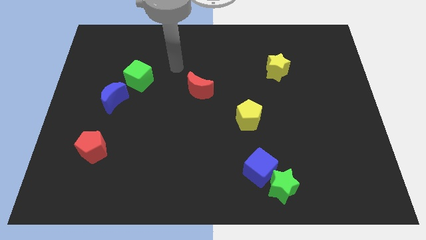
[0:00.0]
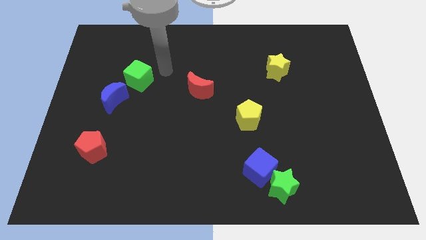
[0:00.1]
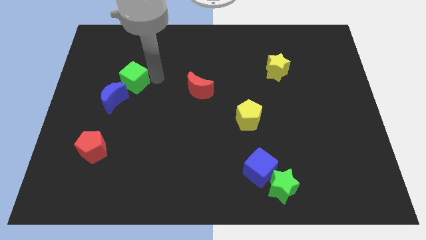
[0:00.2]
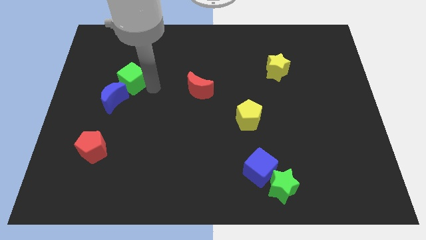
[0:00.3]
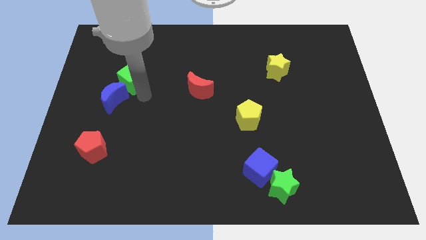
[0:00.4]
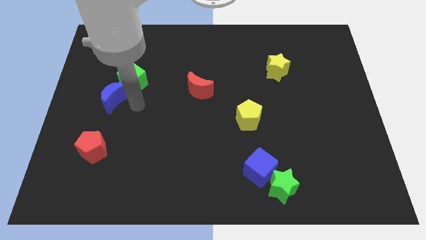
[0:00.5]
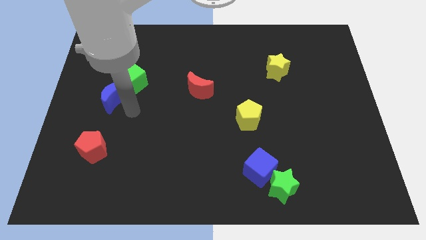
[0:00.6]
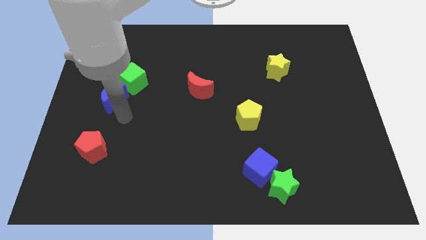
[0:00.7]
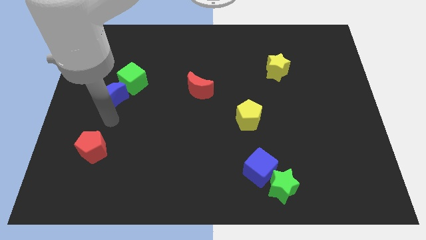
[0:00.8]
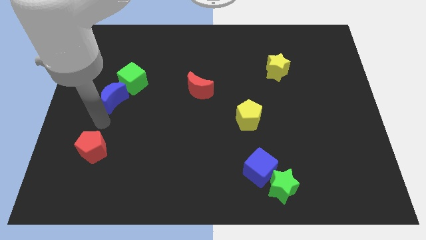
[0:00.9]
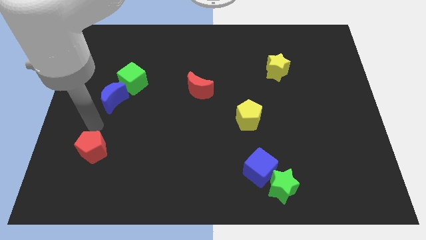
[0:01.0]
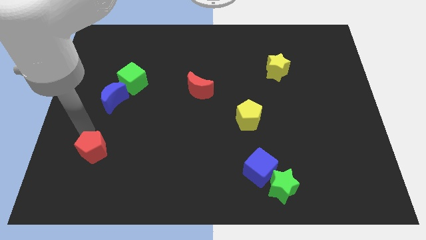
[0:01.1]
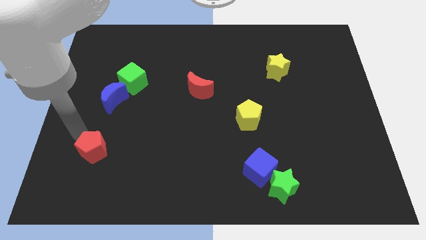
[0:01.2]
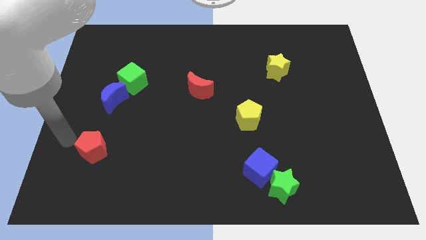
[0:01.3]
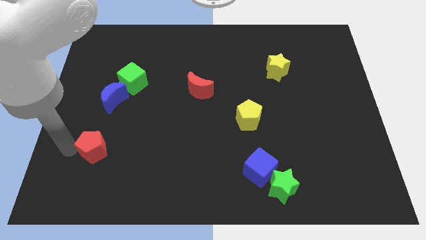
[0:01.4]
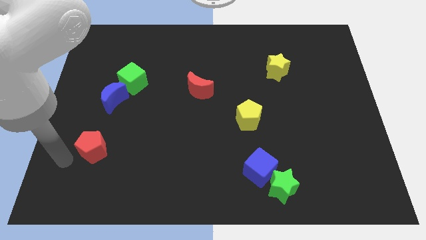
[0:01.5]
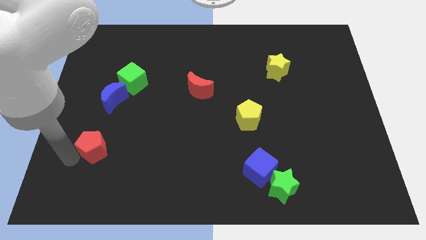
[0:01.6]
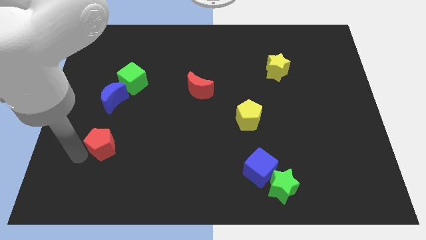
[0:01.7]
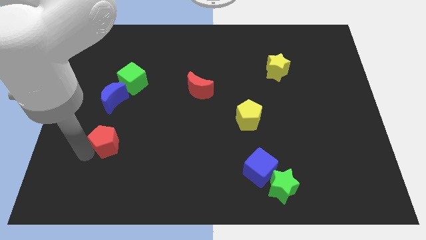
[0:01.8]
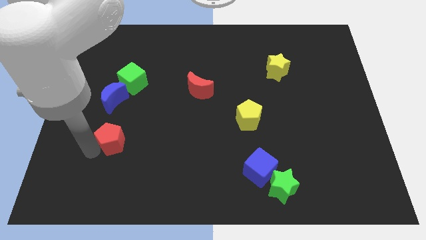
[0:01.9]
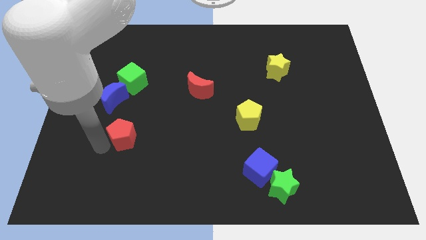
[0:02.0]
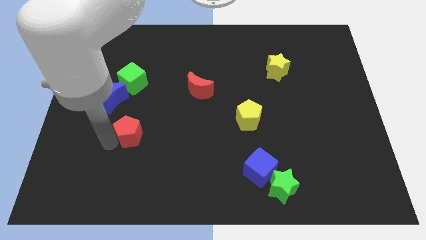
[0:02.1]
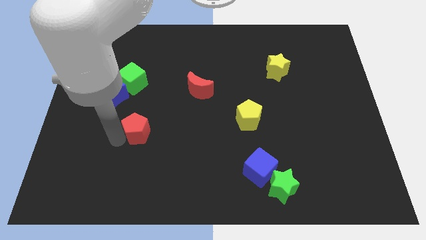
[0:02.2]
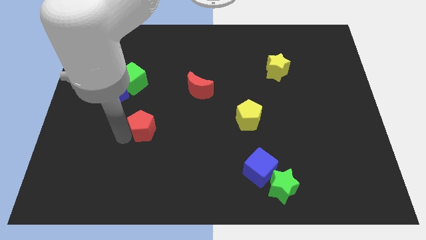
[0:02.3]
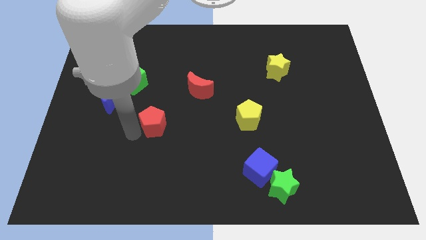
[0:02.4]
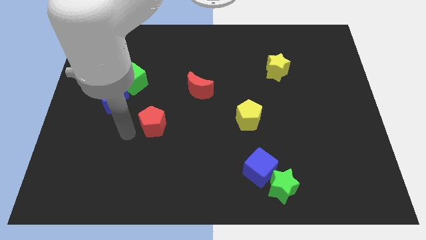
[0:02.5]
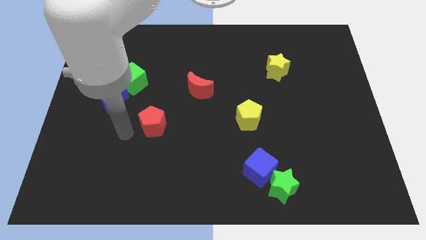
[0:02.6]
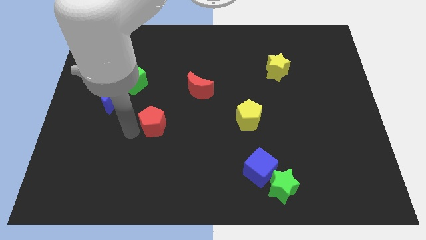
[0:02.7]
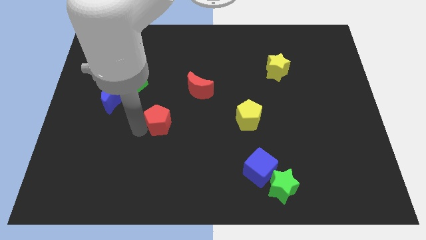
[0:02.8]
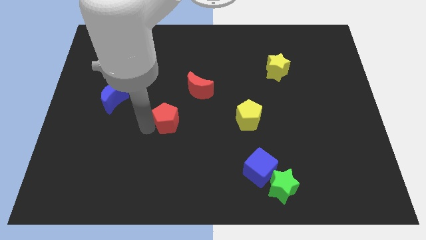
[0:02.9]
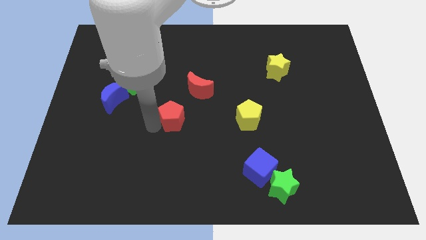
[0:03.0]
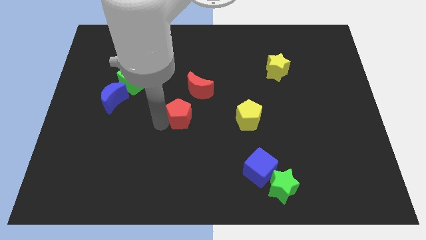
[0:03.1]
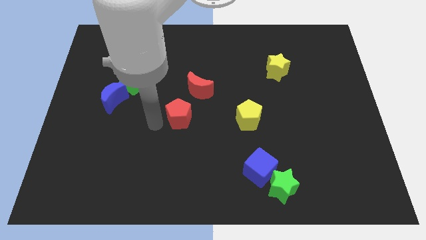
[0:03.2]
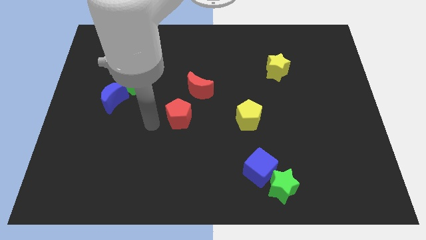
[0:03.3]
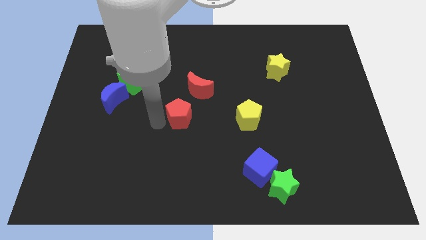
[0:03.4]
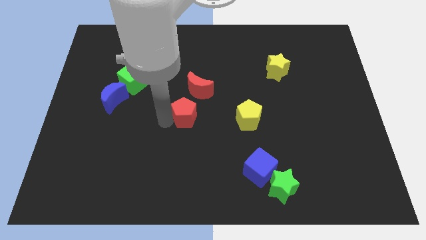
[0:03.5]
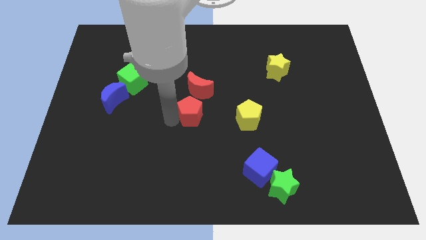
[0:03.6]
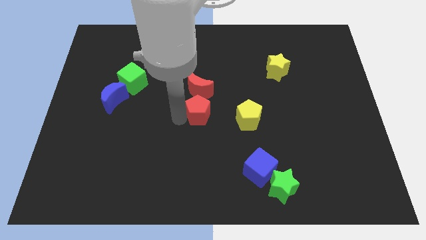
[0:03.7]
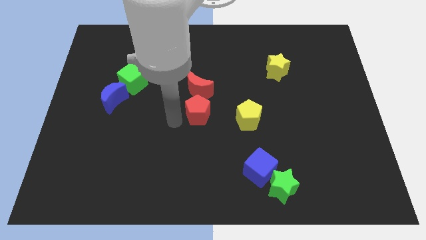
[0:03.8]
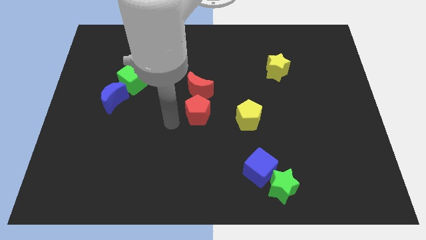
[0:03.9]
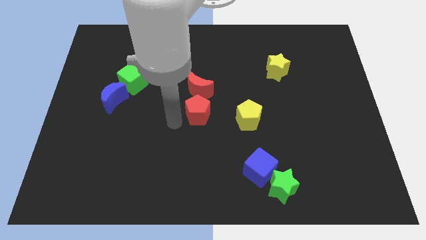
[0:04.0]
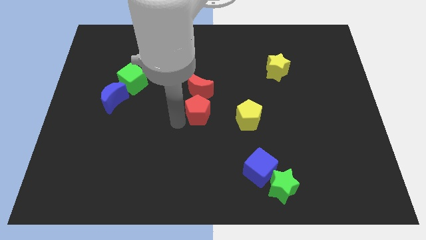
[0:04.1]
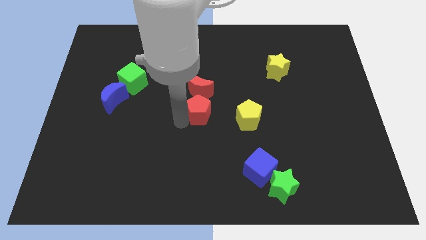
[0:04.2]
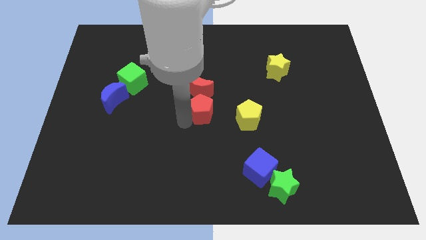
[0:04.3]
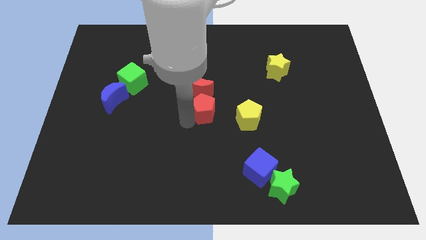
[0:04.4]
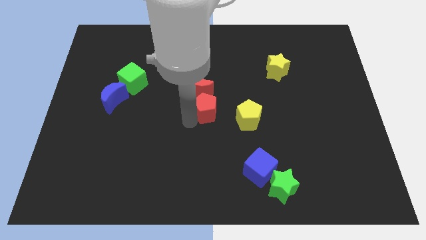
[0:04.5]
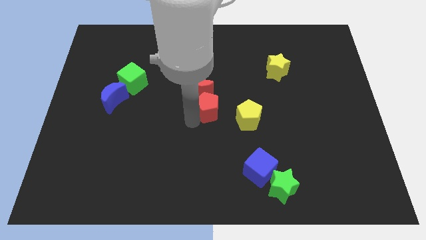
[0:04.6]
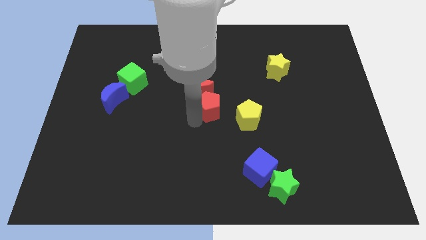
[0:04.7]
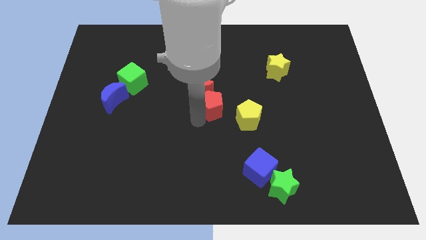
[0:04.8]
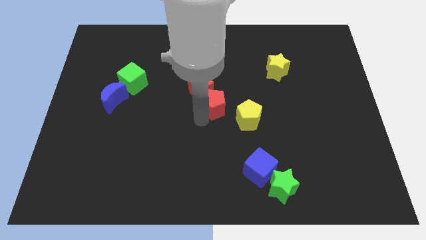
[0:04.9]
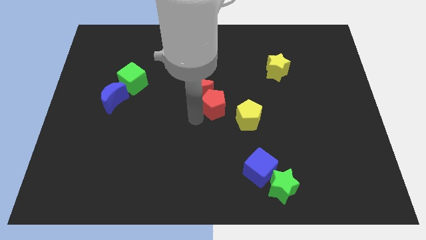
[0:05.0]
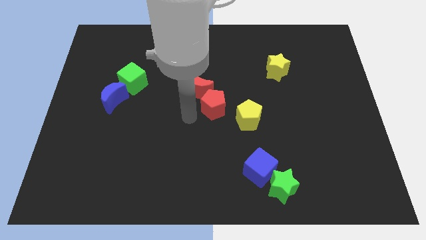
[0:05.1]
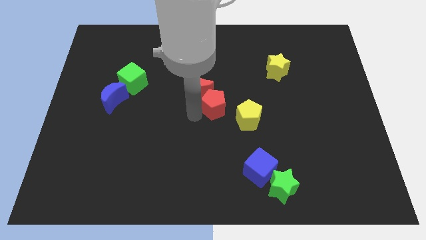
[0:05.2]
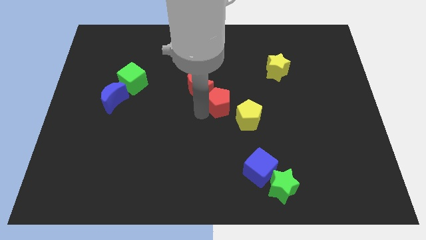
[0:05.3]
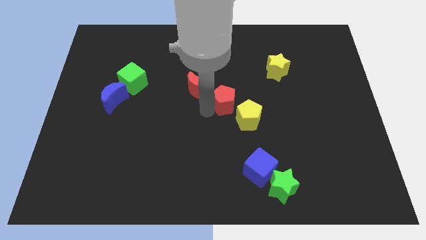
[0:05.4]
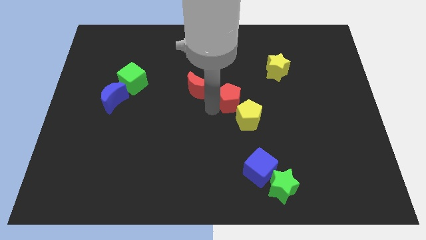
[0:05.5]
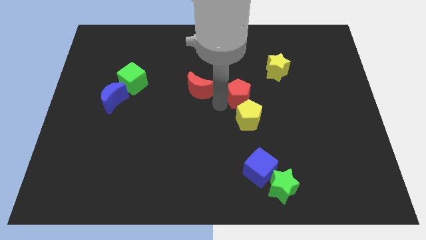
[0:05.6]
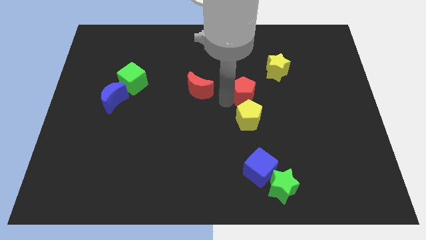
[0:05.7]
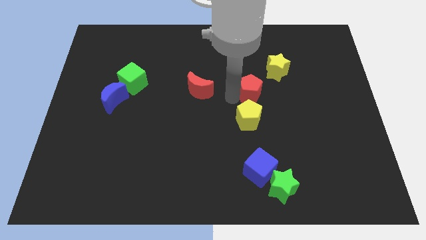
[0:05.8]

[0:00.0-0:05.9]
put the red pentagon diagonally up and to the right of the yellow pentagon

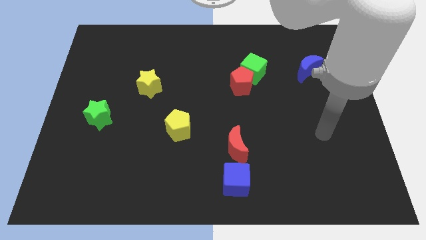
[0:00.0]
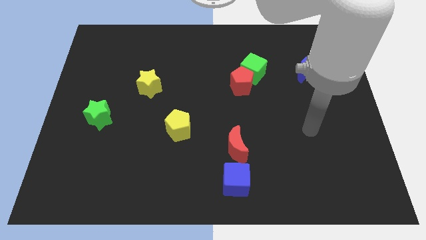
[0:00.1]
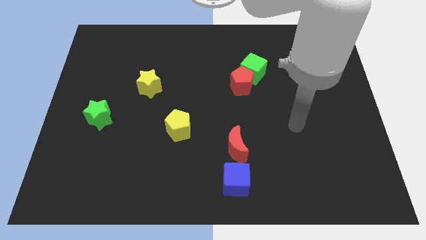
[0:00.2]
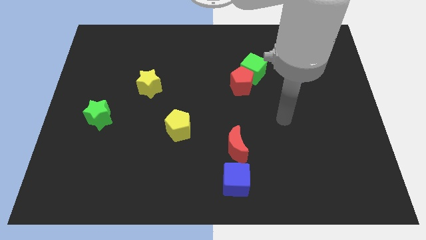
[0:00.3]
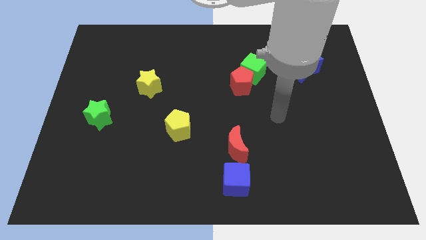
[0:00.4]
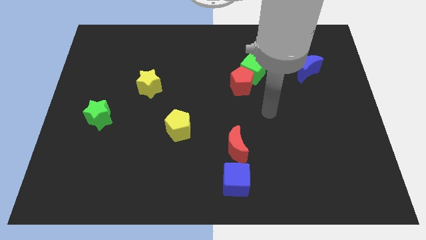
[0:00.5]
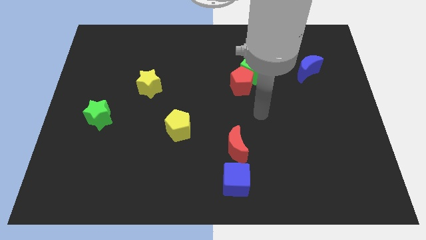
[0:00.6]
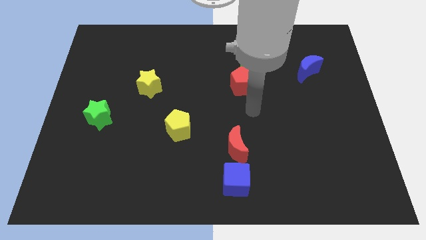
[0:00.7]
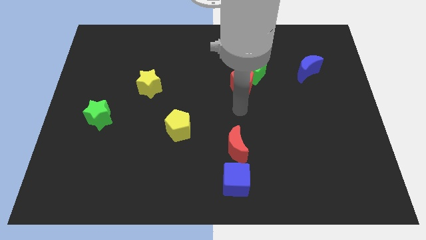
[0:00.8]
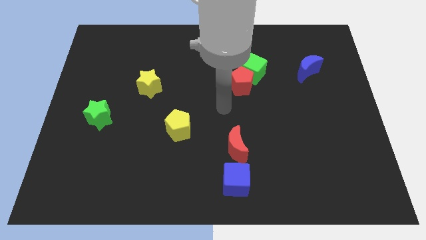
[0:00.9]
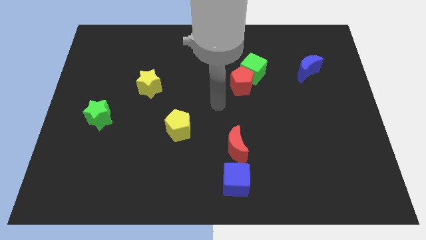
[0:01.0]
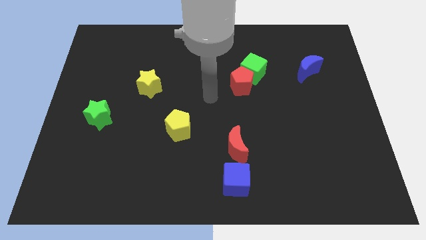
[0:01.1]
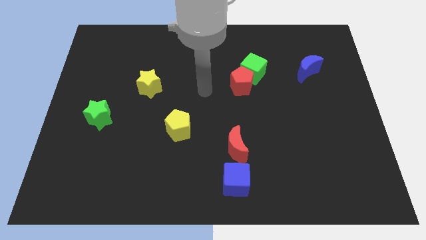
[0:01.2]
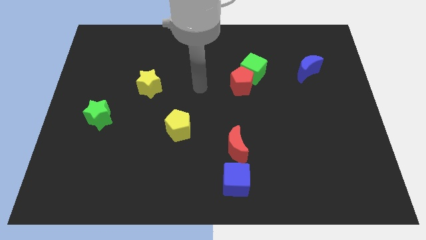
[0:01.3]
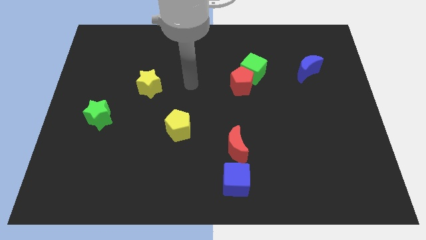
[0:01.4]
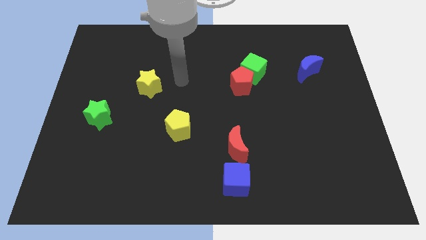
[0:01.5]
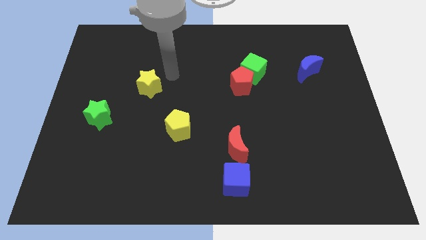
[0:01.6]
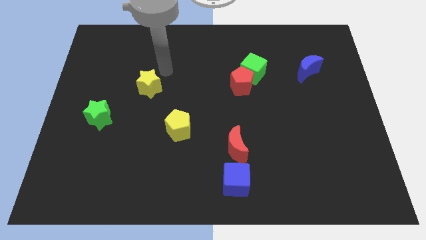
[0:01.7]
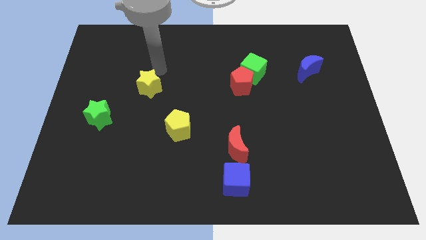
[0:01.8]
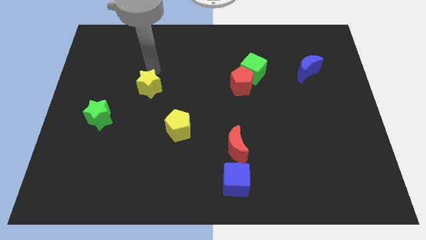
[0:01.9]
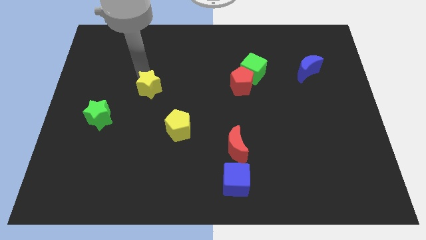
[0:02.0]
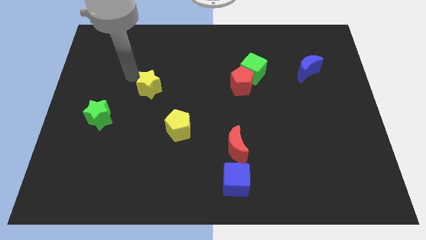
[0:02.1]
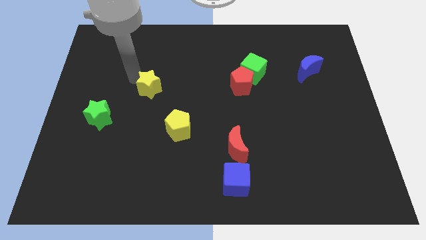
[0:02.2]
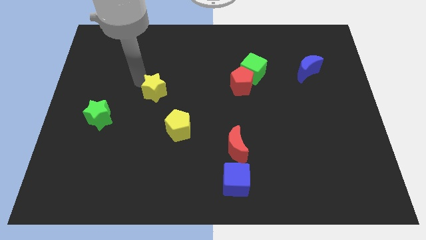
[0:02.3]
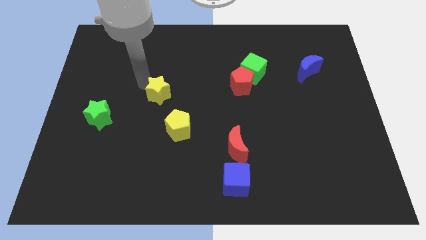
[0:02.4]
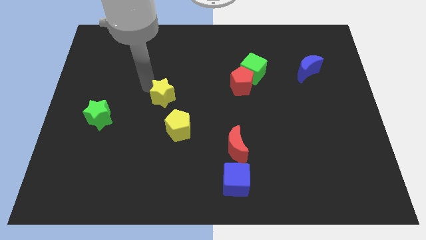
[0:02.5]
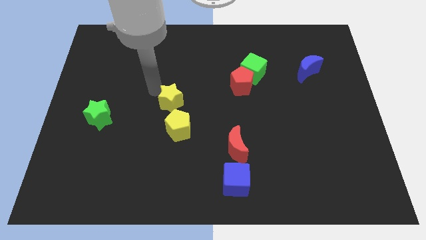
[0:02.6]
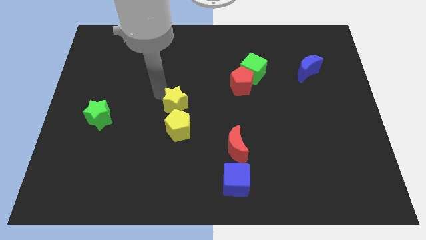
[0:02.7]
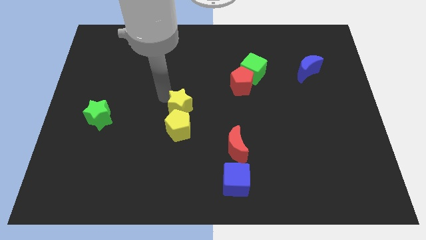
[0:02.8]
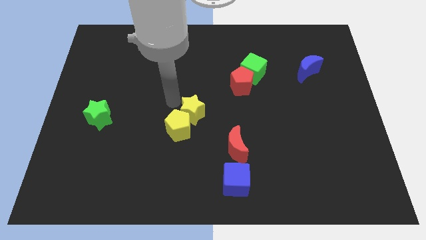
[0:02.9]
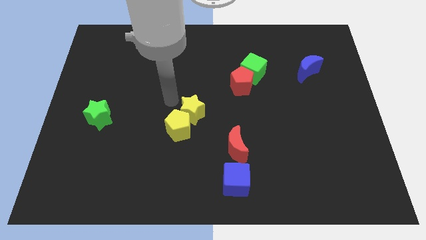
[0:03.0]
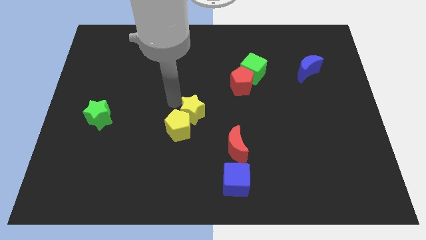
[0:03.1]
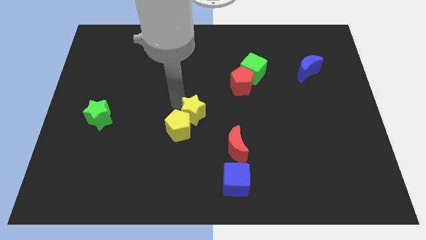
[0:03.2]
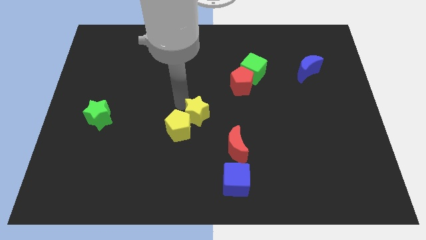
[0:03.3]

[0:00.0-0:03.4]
put the yellow star right of the yellow pentagon
